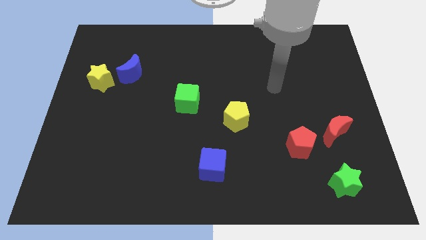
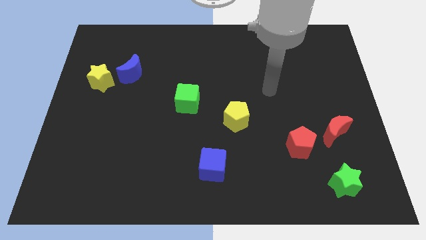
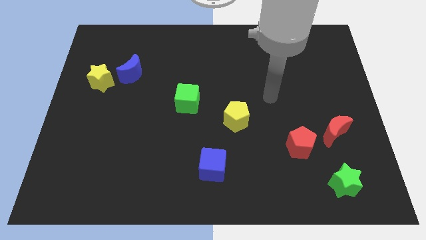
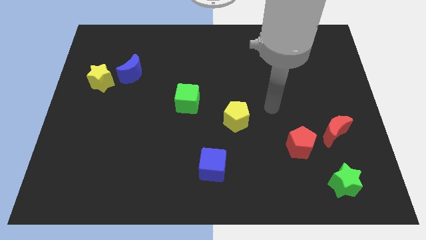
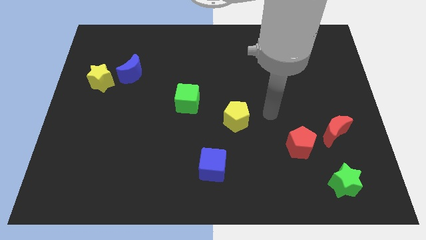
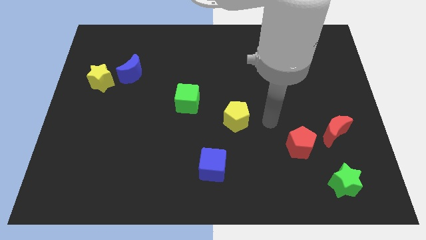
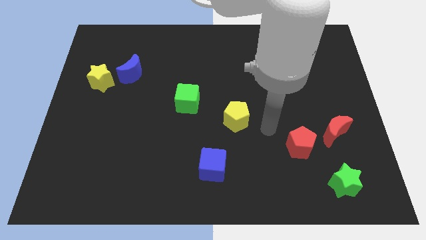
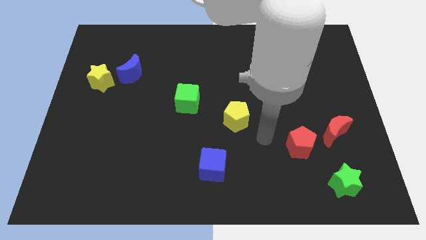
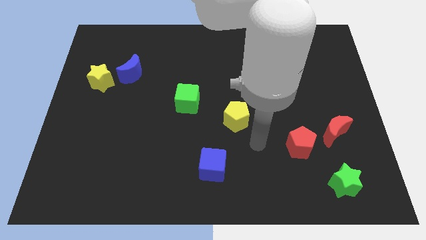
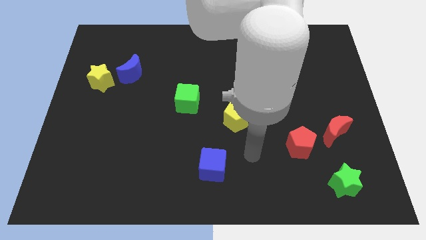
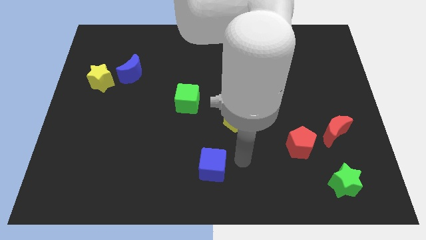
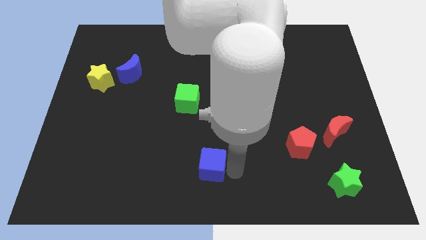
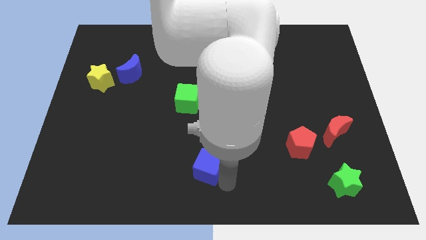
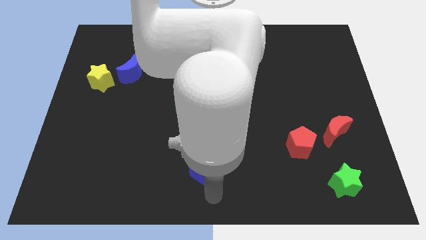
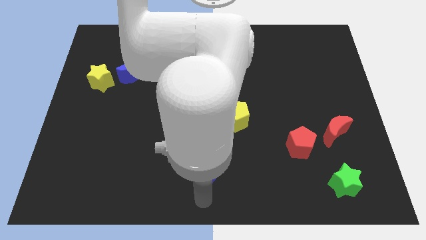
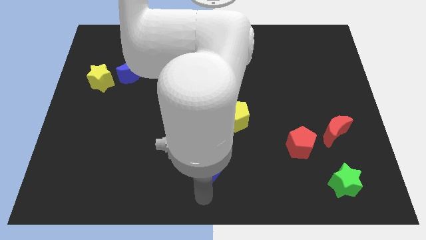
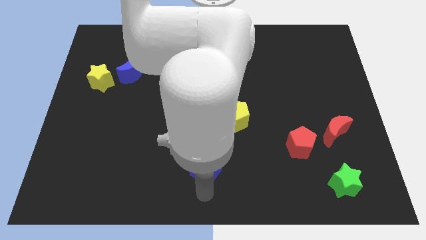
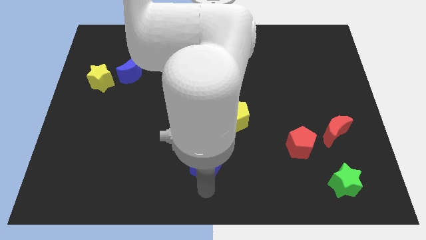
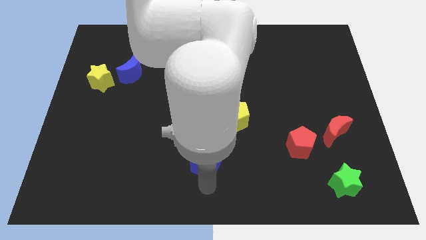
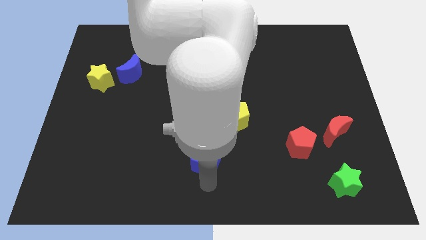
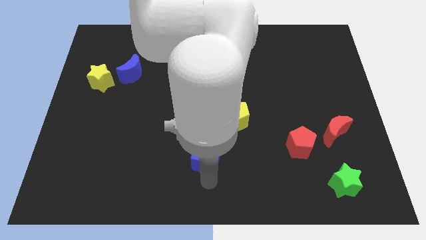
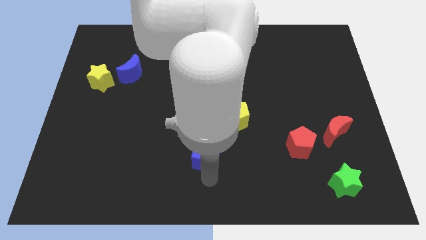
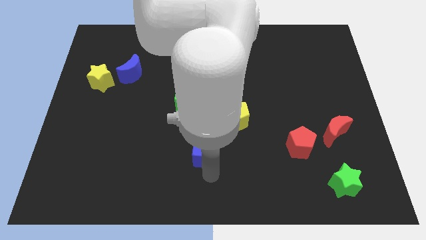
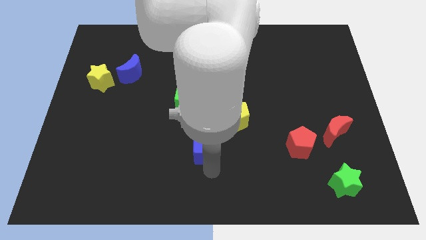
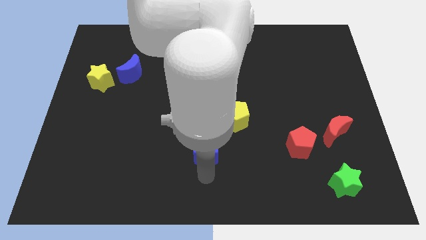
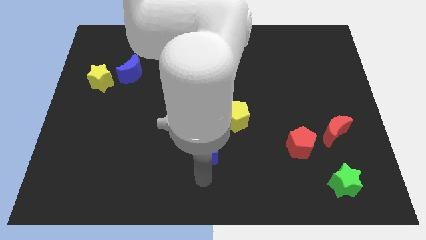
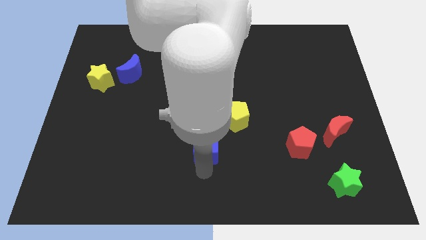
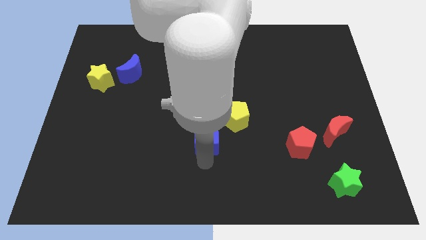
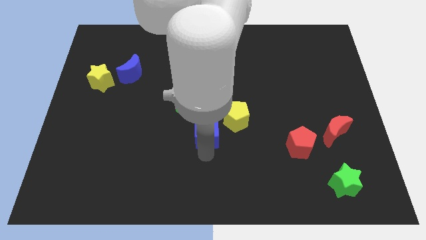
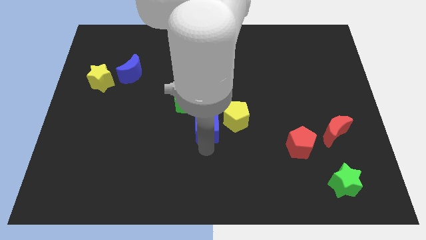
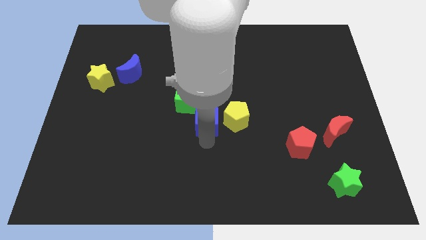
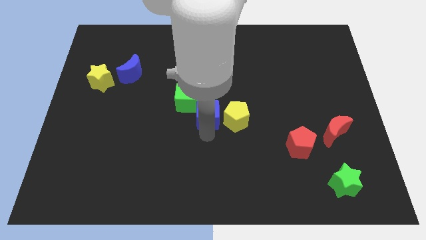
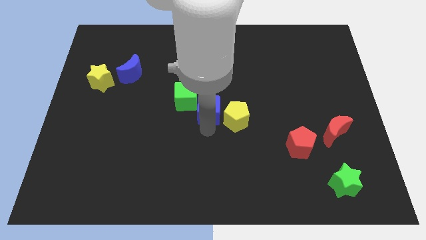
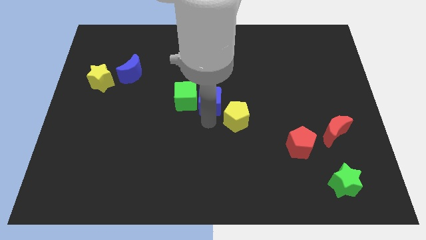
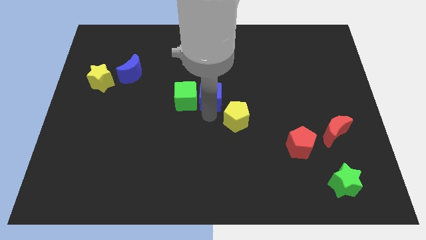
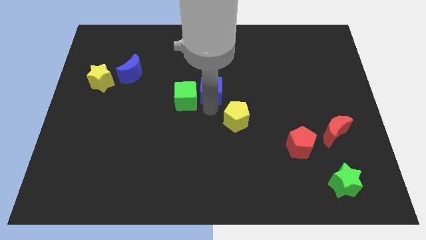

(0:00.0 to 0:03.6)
push the blue cube upwards

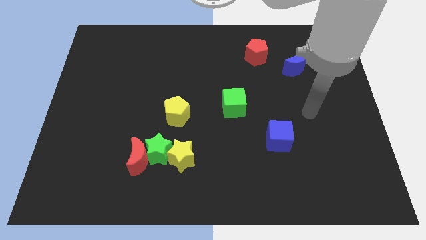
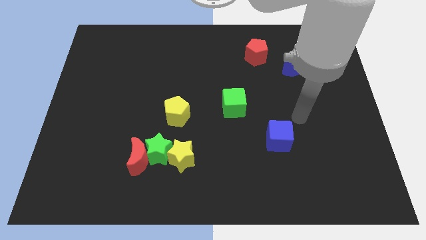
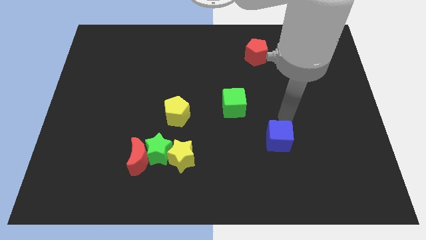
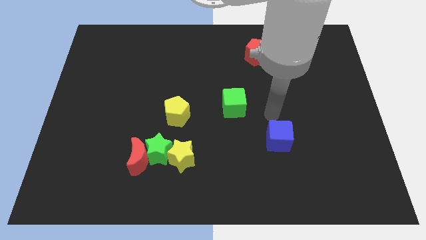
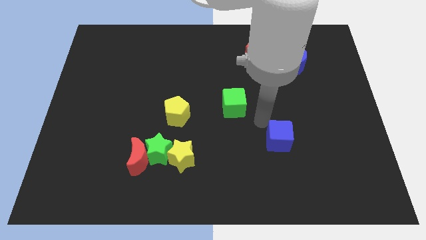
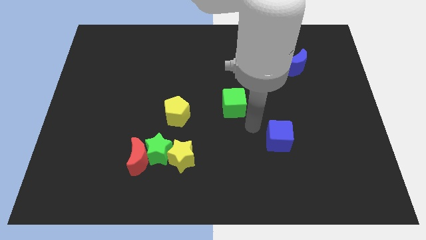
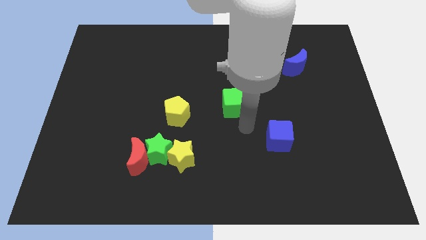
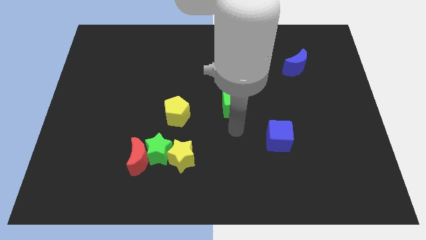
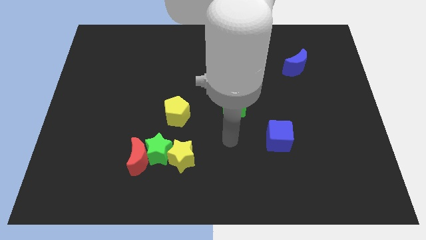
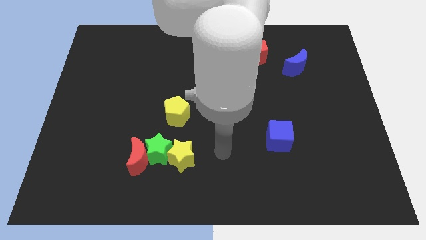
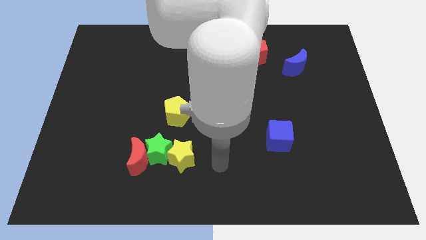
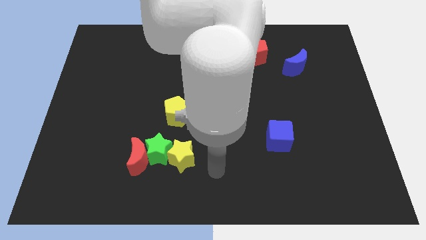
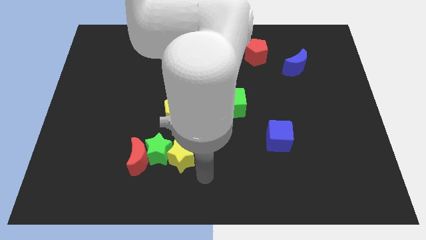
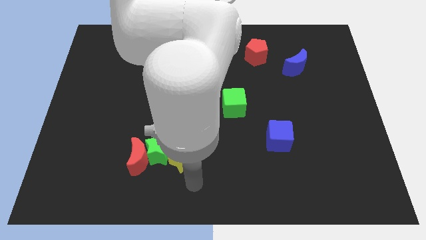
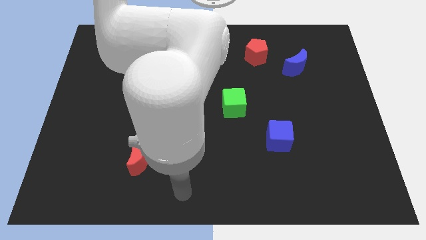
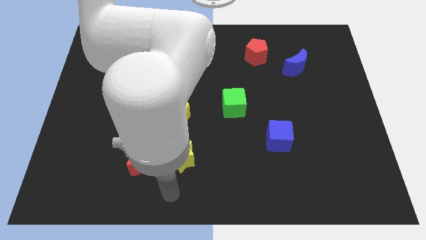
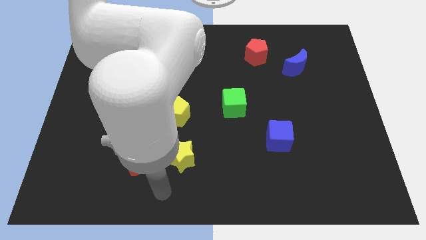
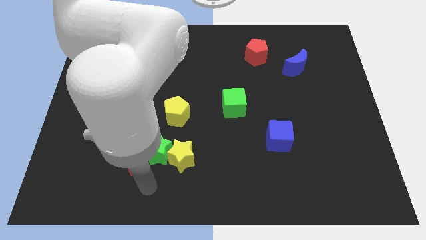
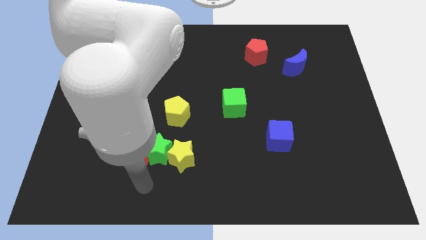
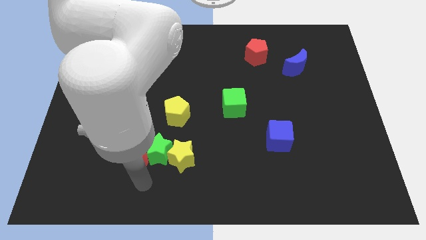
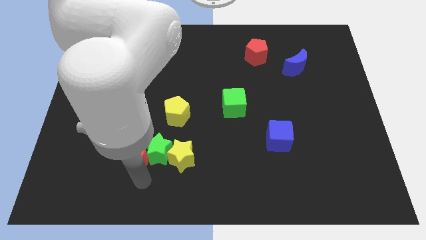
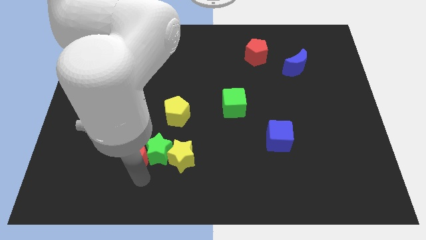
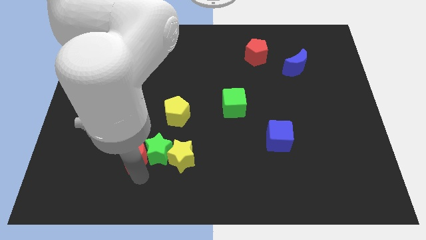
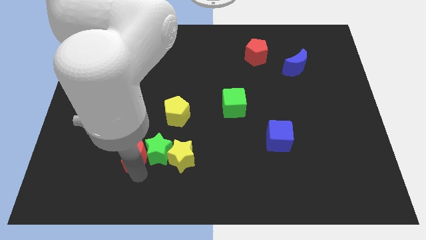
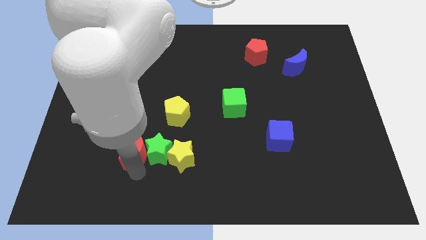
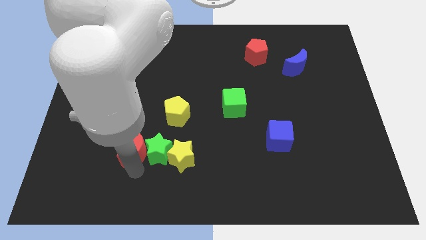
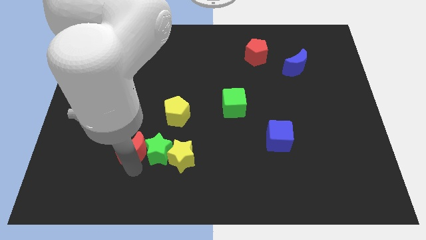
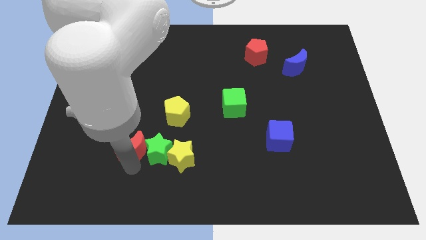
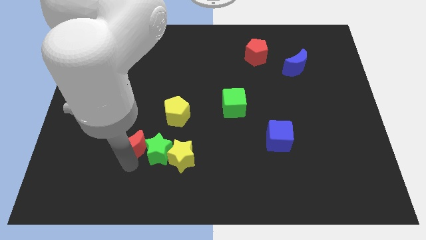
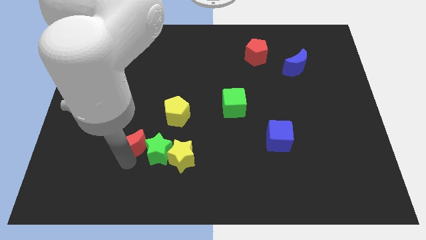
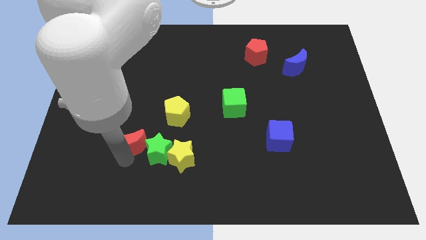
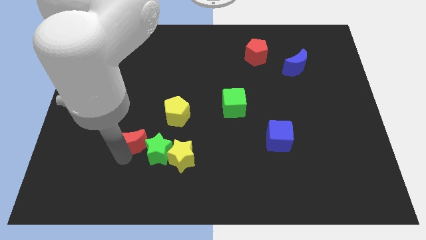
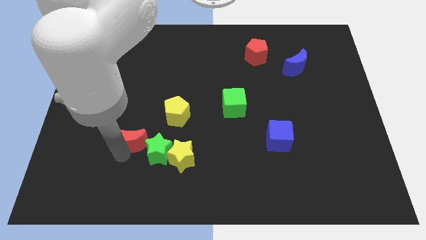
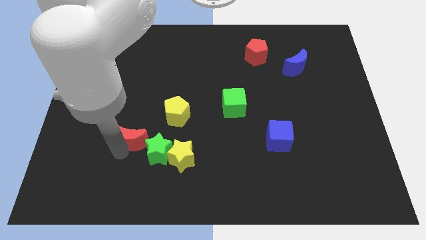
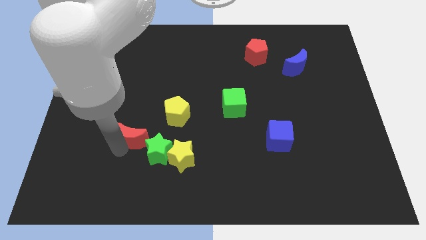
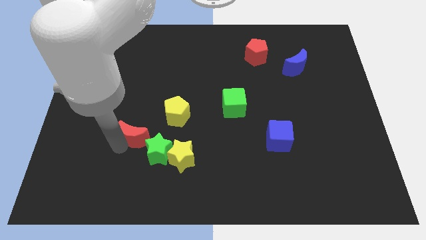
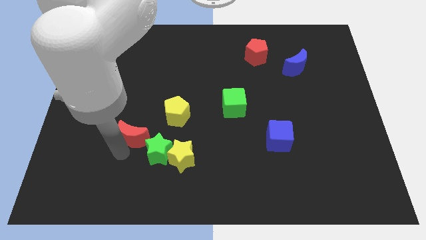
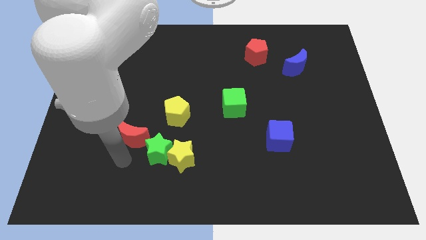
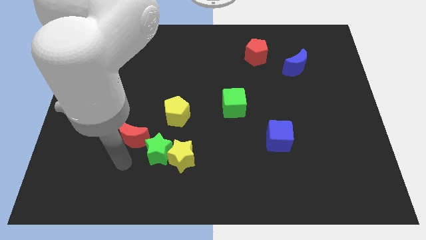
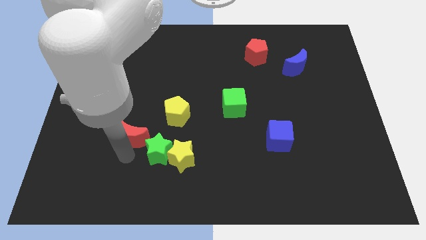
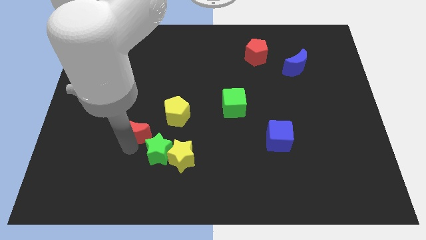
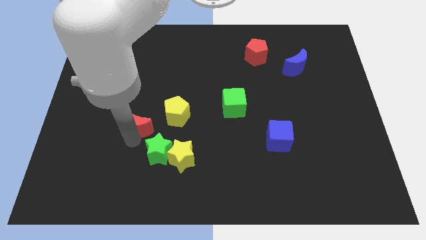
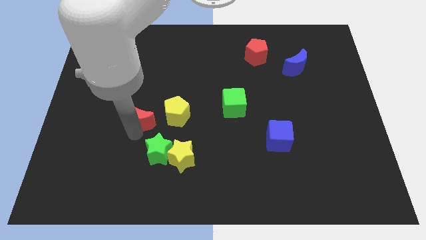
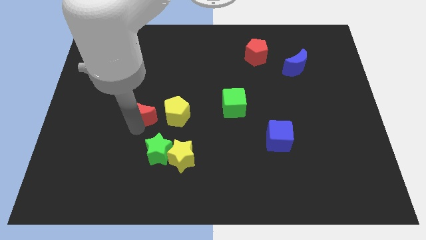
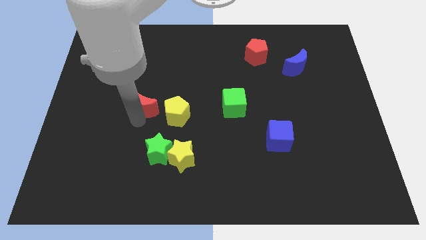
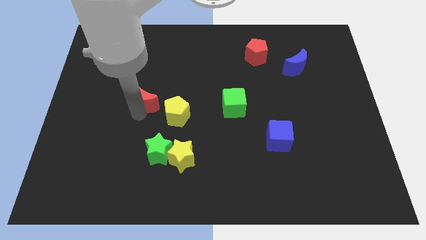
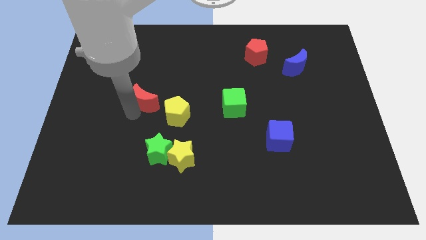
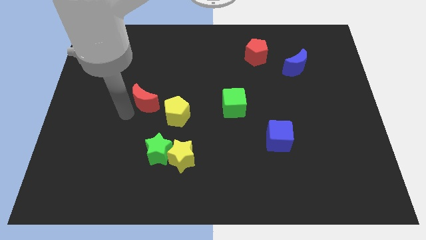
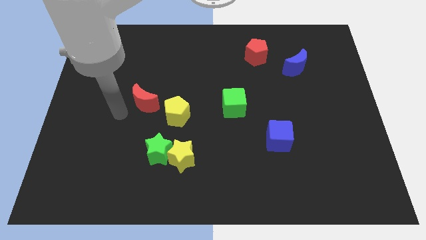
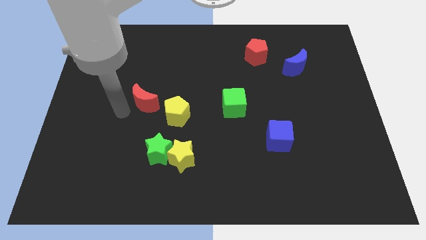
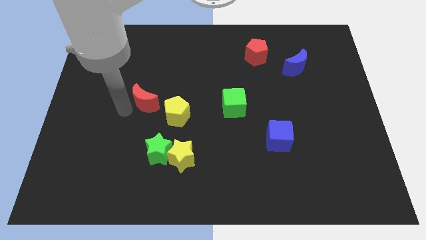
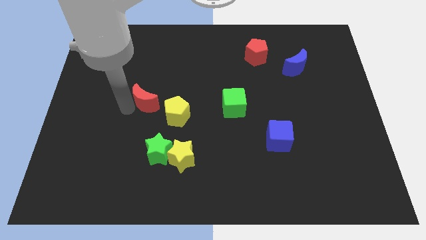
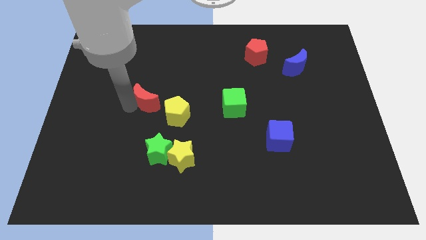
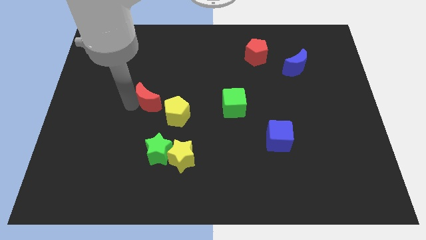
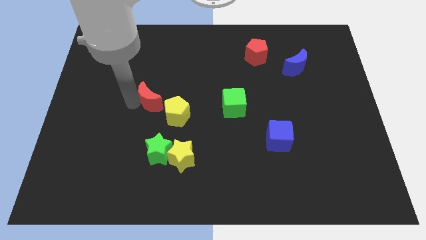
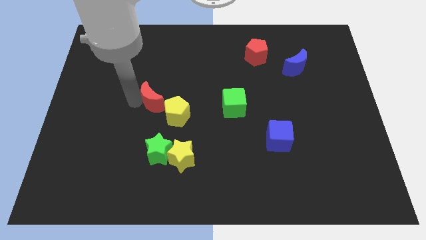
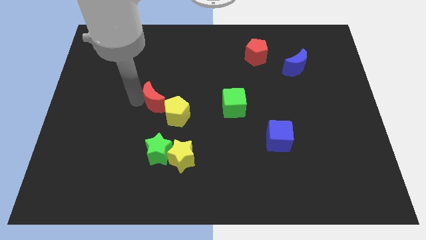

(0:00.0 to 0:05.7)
slide the red moon a little upwards and then right
